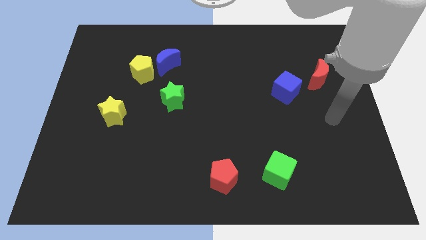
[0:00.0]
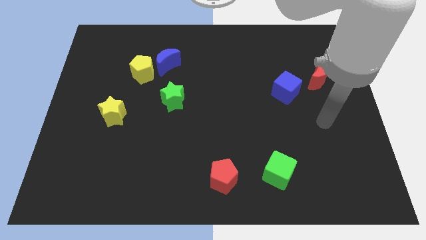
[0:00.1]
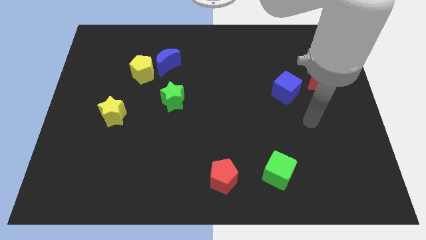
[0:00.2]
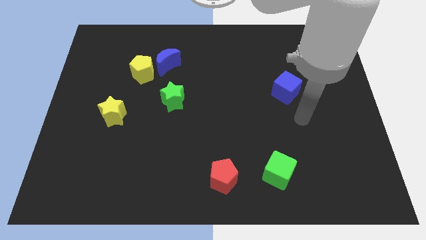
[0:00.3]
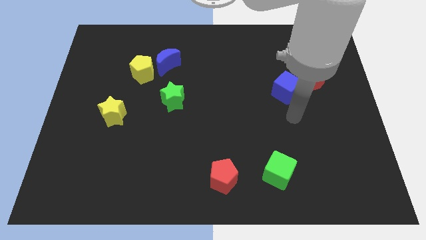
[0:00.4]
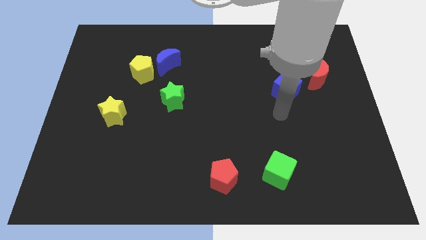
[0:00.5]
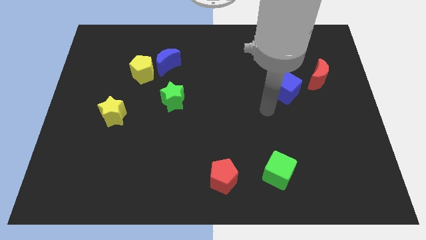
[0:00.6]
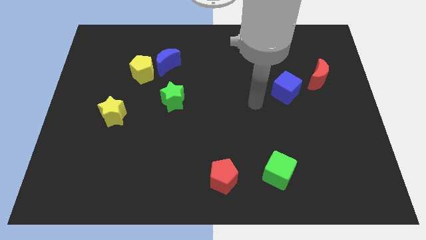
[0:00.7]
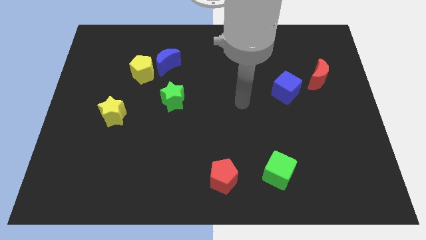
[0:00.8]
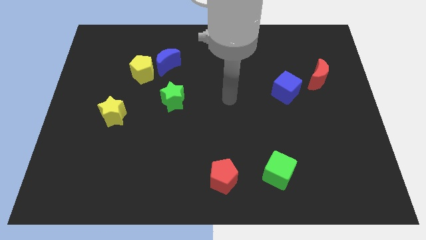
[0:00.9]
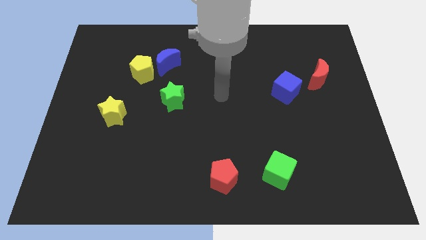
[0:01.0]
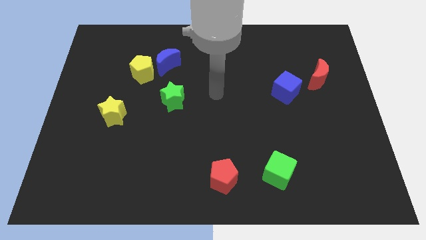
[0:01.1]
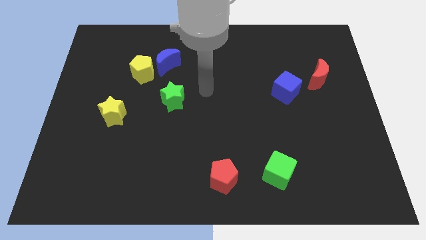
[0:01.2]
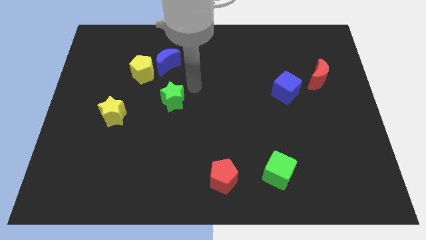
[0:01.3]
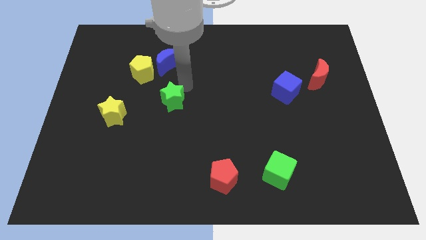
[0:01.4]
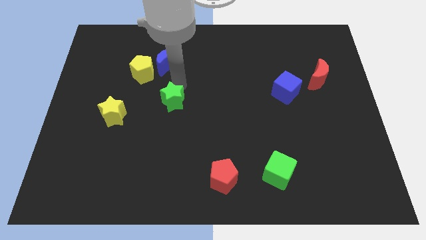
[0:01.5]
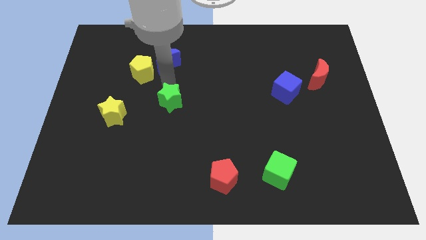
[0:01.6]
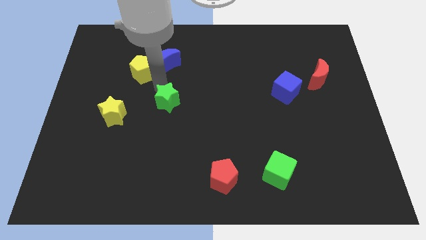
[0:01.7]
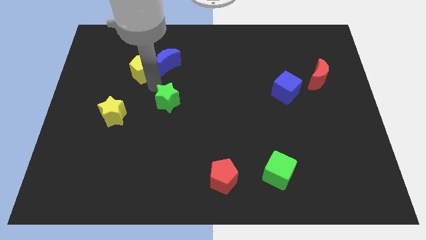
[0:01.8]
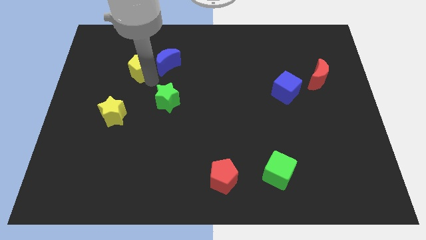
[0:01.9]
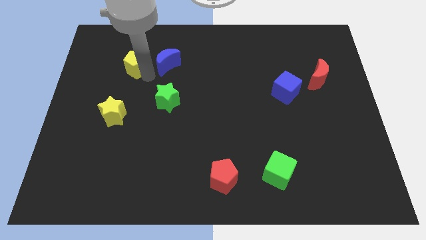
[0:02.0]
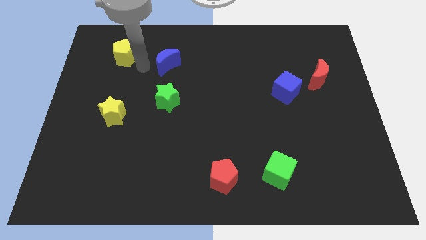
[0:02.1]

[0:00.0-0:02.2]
pull the blue moon apart from the yellow pentagon

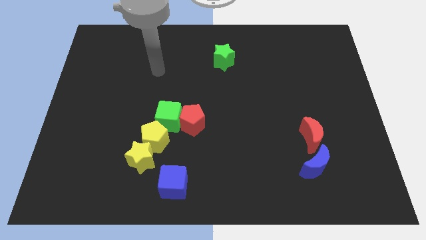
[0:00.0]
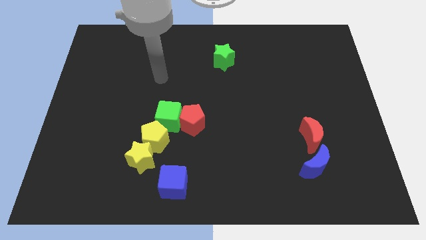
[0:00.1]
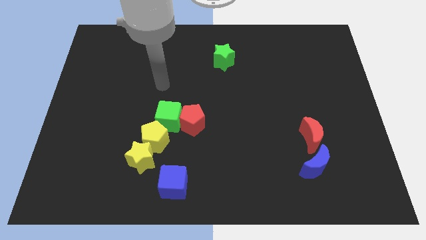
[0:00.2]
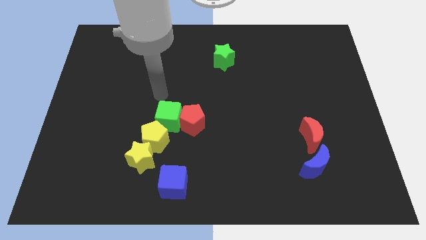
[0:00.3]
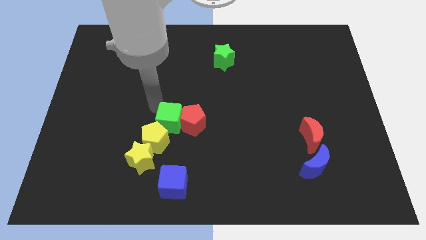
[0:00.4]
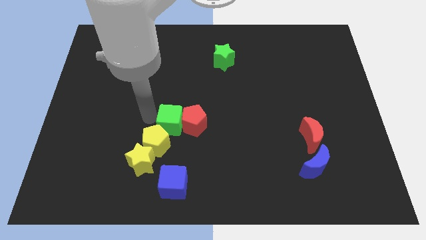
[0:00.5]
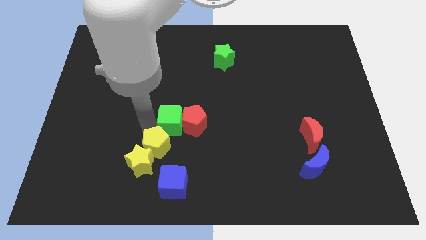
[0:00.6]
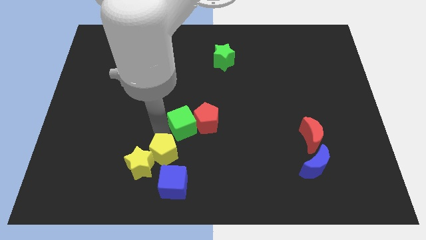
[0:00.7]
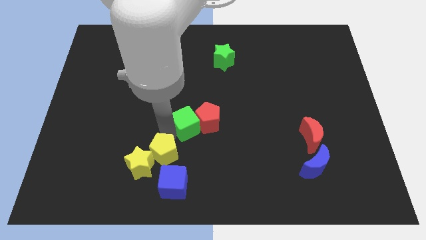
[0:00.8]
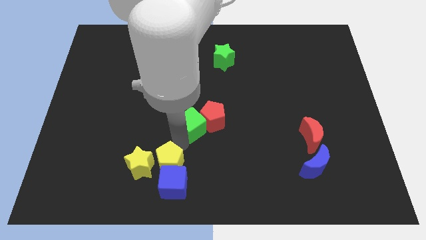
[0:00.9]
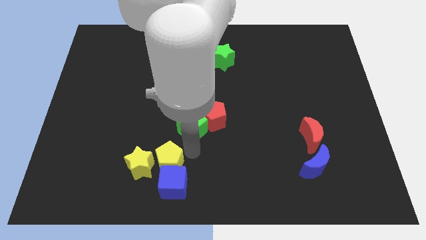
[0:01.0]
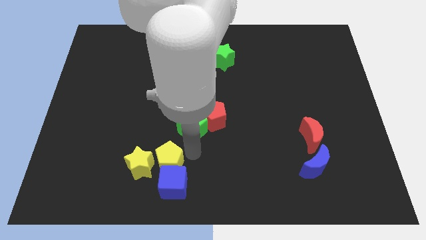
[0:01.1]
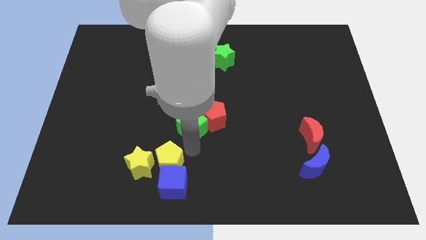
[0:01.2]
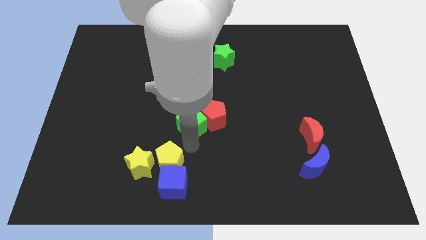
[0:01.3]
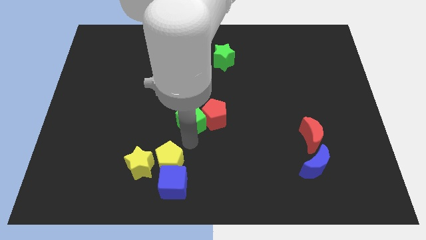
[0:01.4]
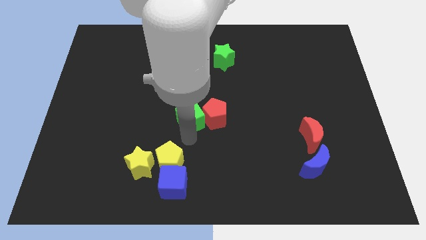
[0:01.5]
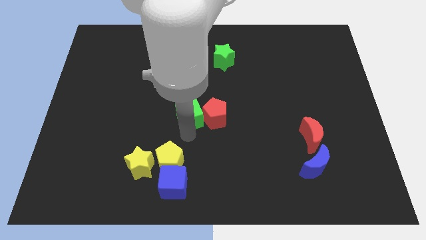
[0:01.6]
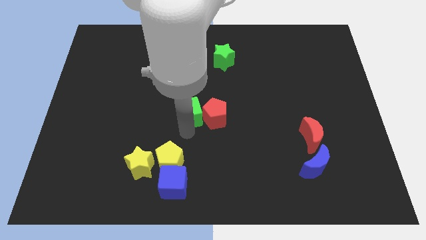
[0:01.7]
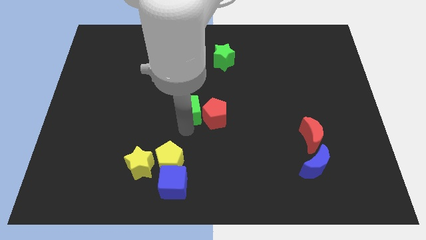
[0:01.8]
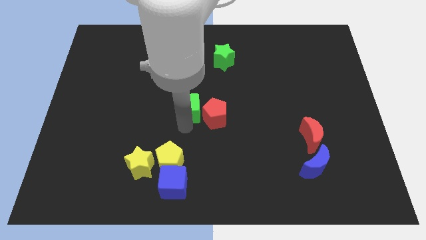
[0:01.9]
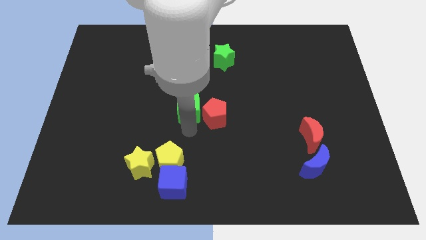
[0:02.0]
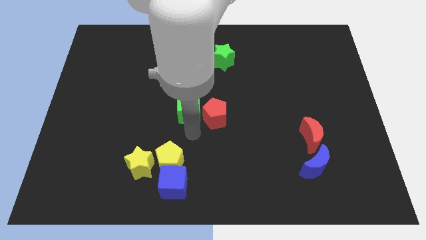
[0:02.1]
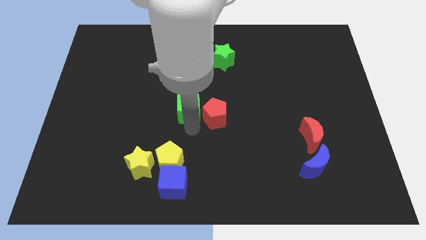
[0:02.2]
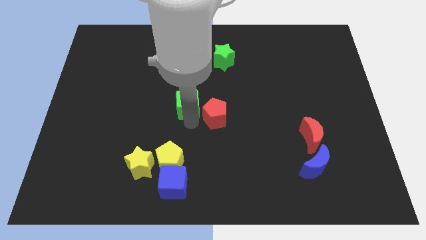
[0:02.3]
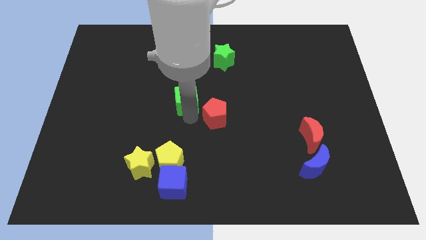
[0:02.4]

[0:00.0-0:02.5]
separate the green cube from the red pentagon and yellow pentagon

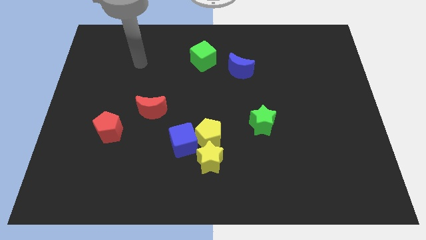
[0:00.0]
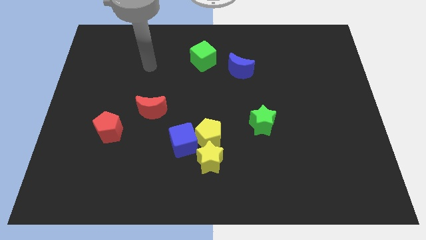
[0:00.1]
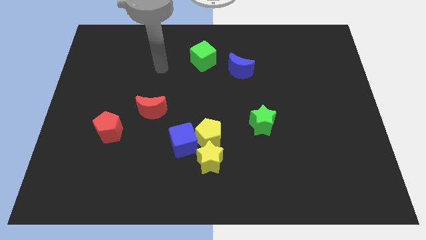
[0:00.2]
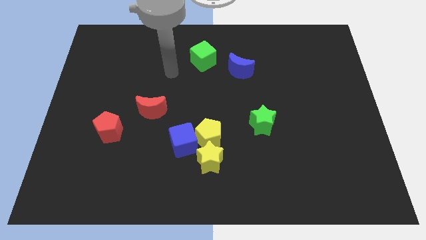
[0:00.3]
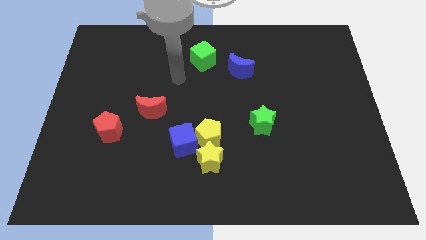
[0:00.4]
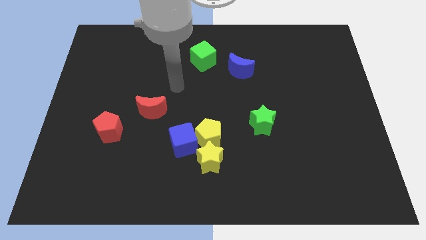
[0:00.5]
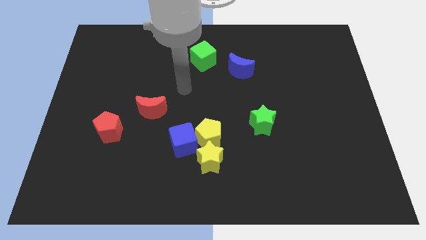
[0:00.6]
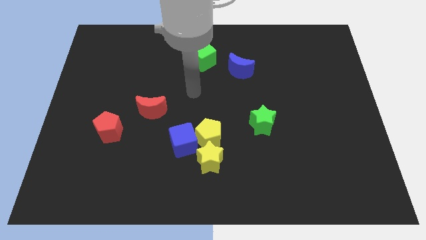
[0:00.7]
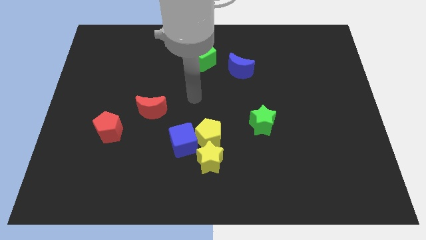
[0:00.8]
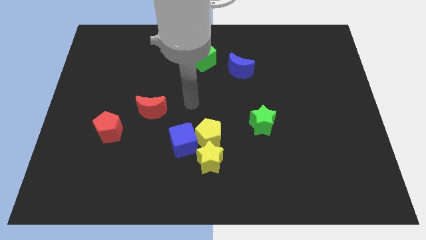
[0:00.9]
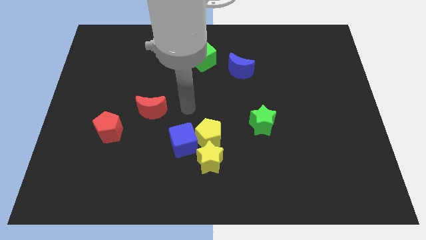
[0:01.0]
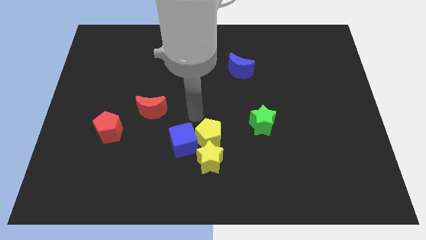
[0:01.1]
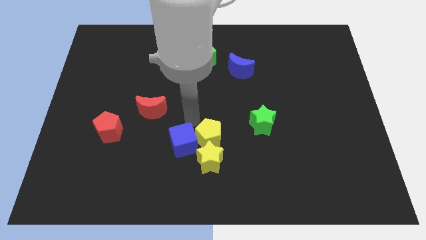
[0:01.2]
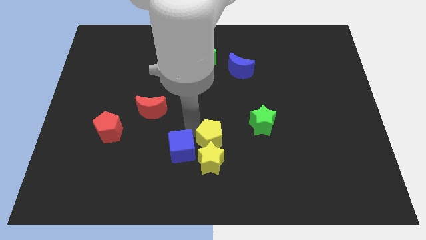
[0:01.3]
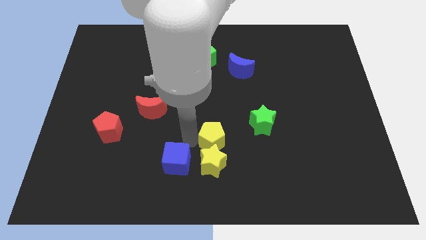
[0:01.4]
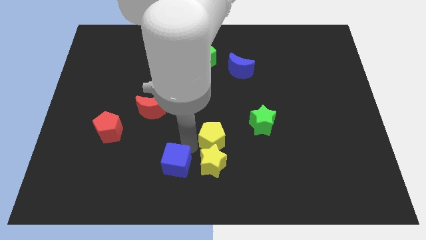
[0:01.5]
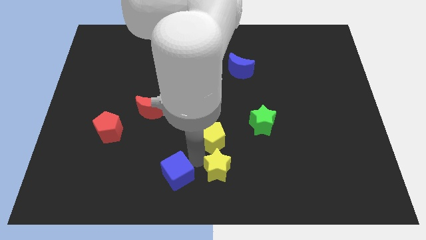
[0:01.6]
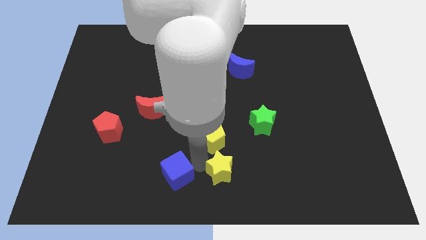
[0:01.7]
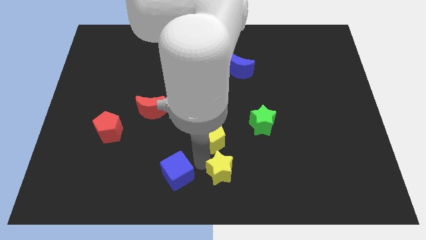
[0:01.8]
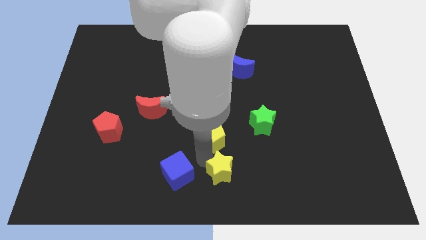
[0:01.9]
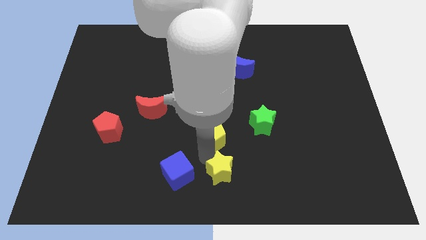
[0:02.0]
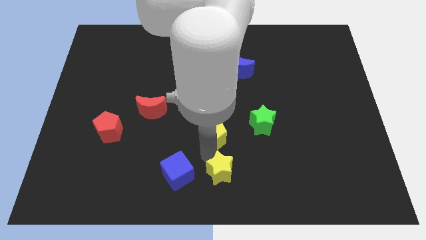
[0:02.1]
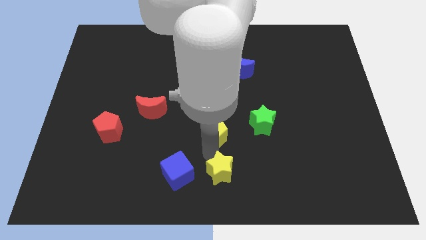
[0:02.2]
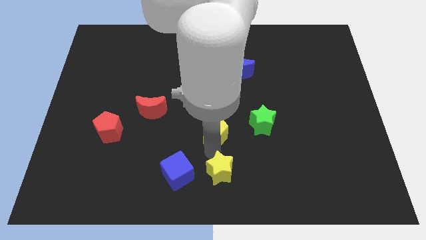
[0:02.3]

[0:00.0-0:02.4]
move the yellow pentagon away from the yellow star and blue cube

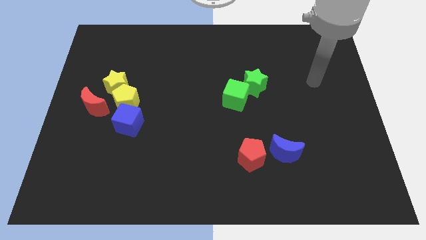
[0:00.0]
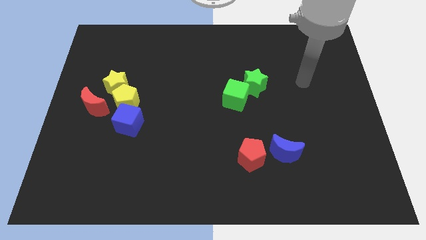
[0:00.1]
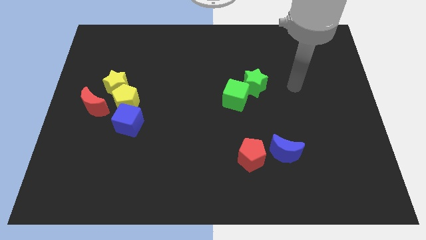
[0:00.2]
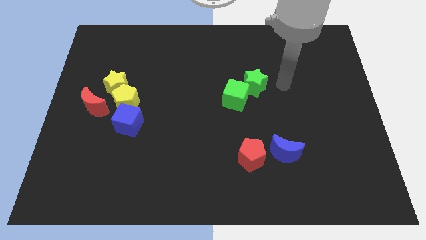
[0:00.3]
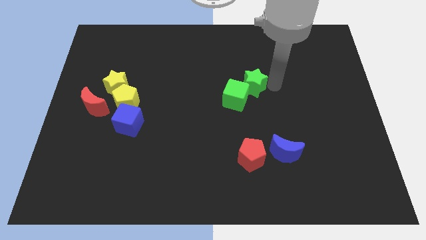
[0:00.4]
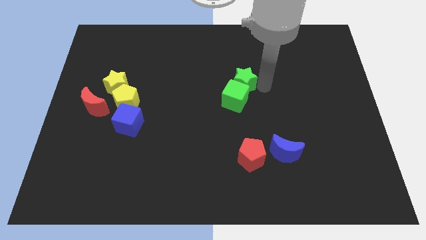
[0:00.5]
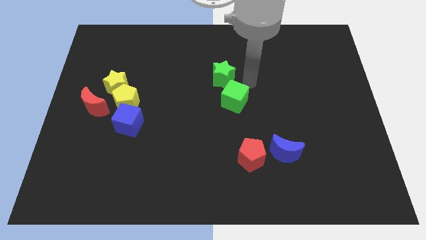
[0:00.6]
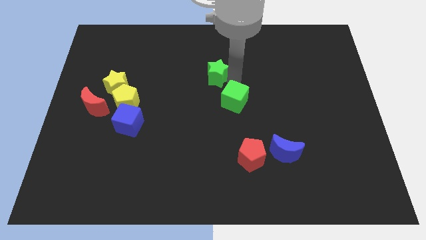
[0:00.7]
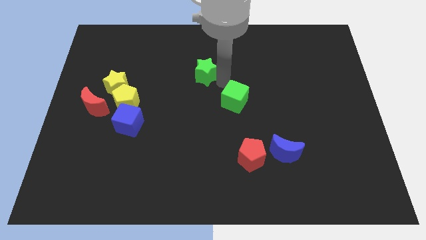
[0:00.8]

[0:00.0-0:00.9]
move the green cube away from the green star

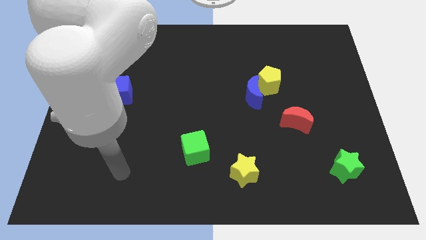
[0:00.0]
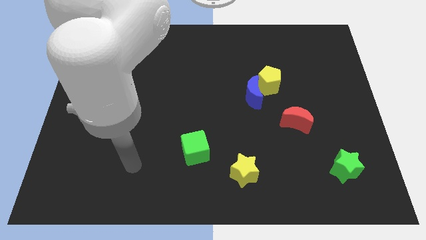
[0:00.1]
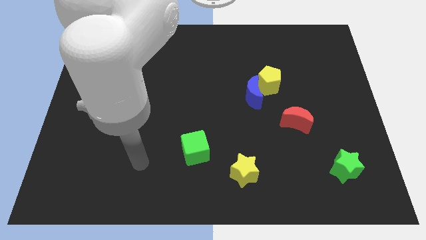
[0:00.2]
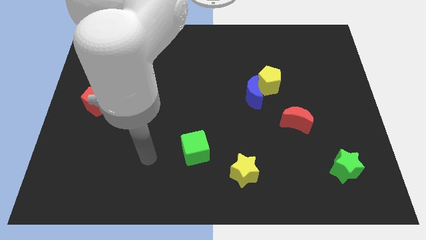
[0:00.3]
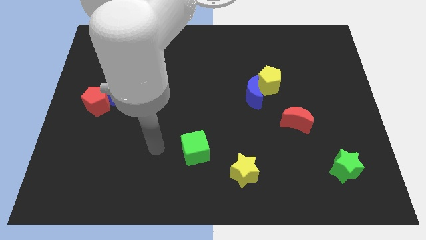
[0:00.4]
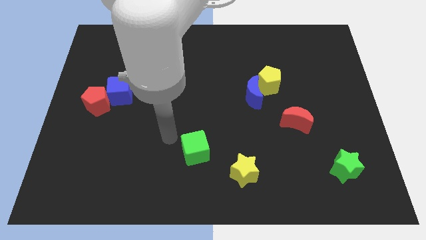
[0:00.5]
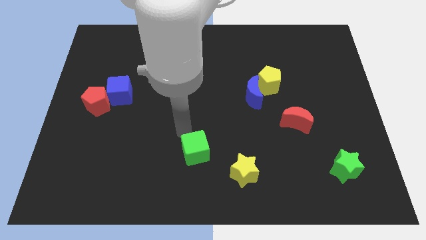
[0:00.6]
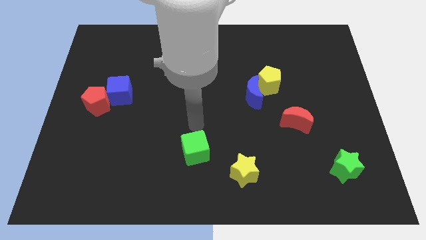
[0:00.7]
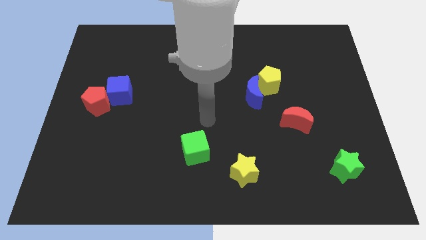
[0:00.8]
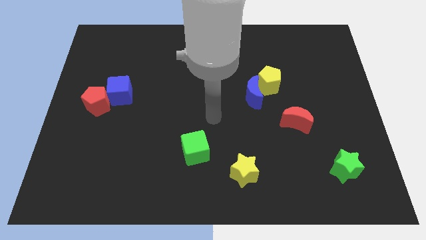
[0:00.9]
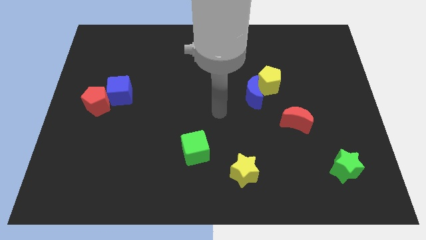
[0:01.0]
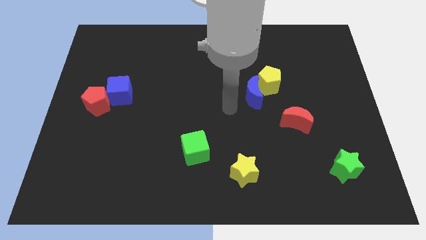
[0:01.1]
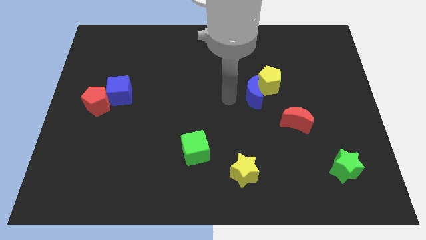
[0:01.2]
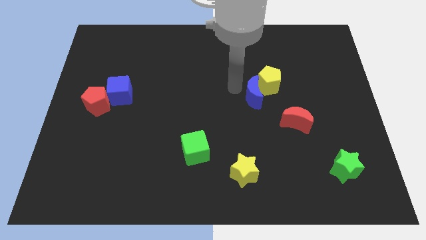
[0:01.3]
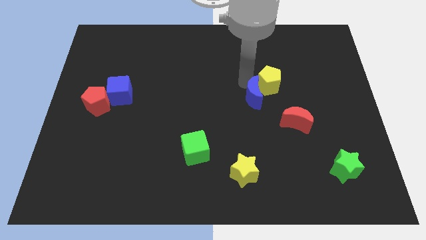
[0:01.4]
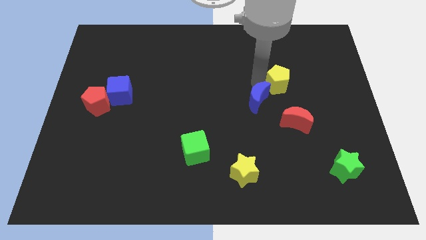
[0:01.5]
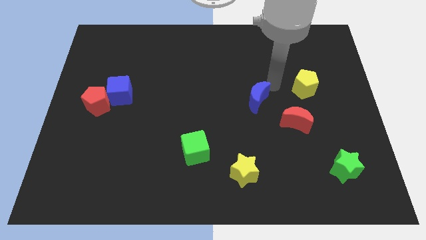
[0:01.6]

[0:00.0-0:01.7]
separate the blue moon from the yellow pentagon
